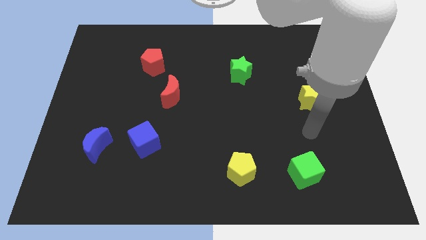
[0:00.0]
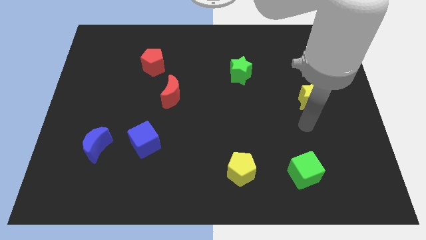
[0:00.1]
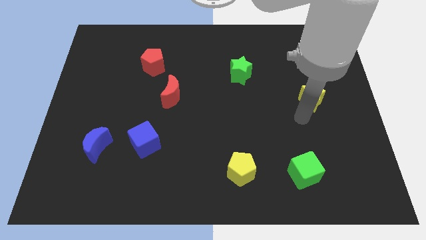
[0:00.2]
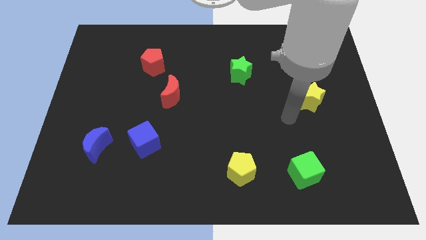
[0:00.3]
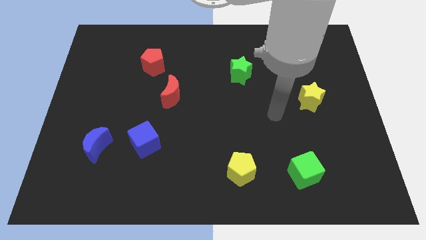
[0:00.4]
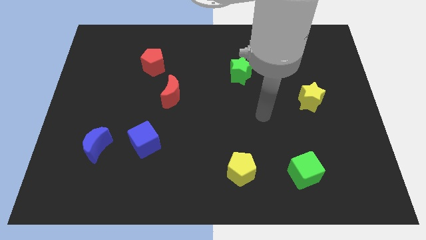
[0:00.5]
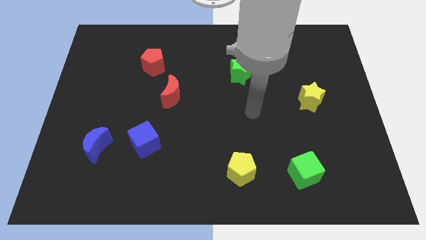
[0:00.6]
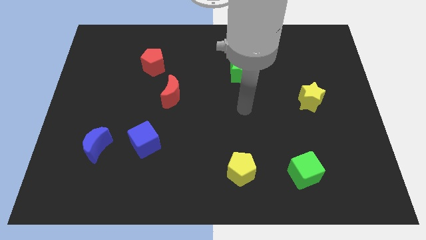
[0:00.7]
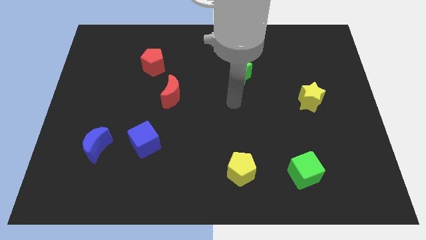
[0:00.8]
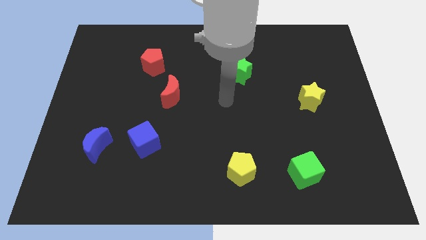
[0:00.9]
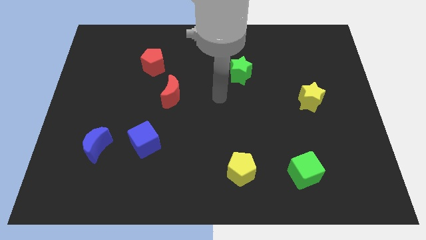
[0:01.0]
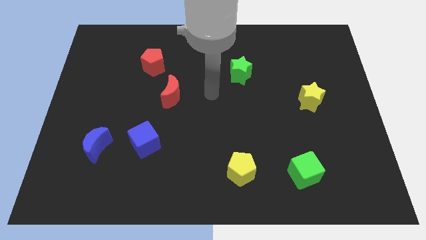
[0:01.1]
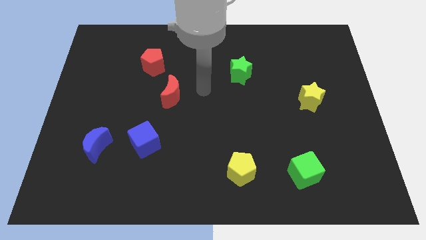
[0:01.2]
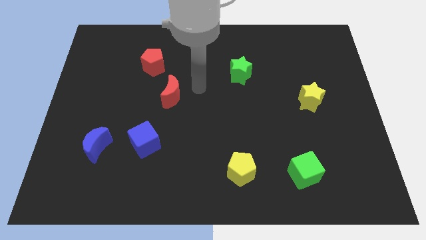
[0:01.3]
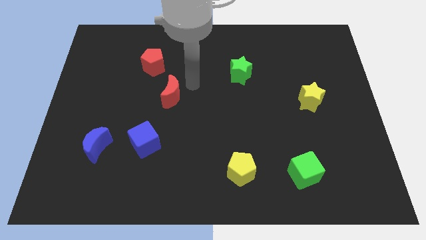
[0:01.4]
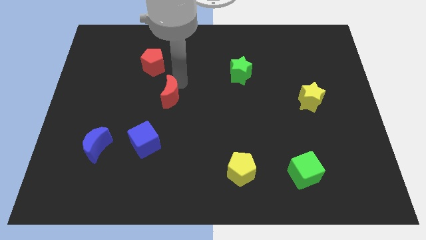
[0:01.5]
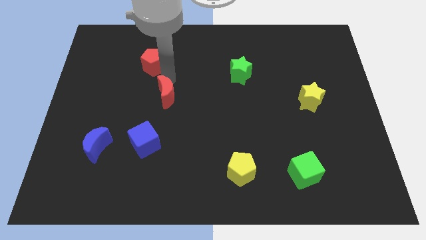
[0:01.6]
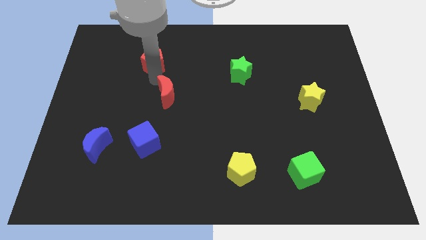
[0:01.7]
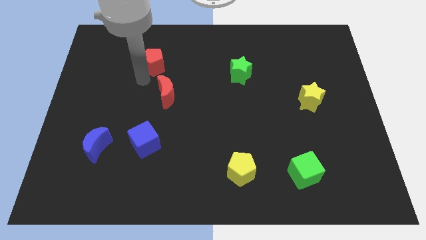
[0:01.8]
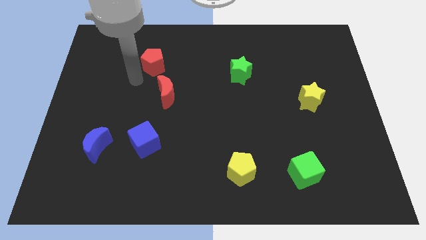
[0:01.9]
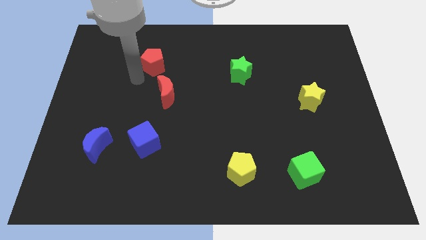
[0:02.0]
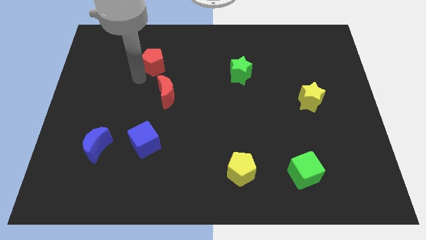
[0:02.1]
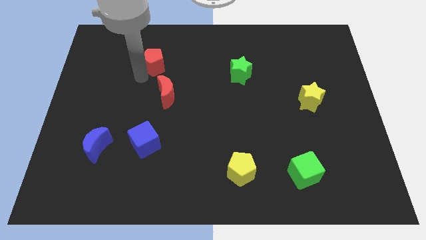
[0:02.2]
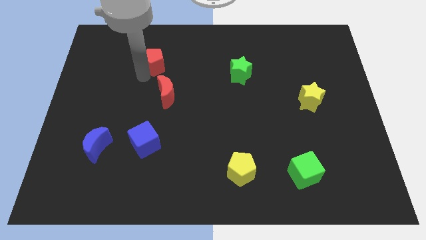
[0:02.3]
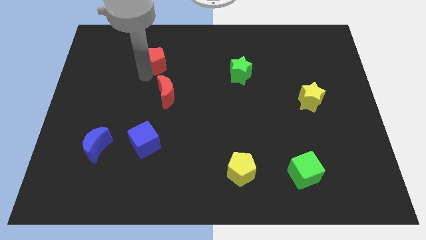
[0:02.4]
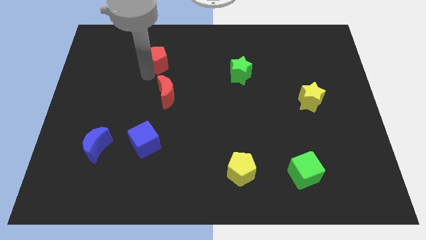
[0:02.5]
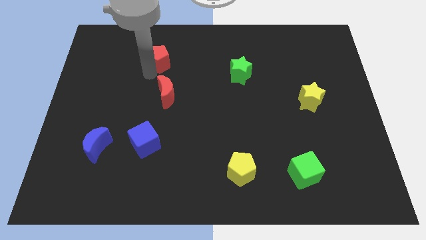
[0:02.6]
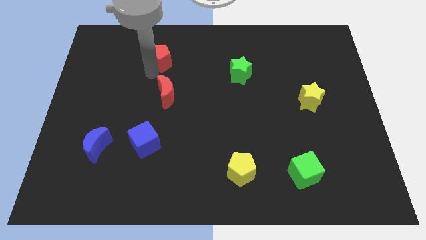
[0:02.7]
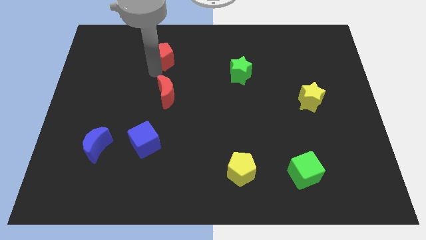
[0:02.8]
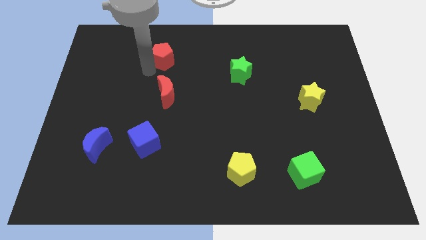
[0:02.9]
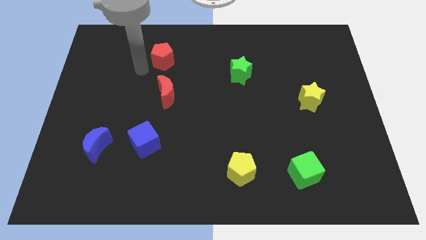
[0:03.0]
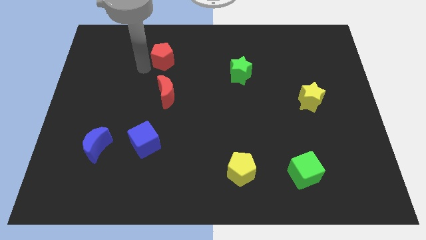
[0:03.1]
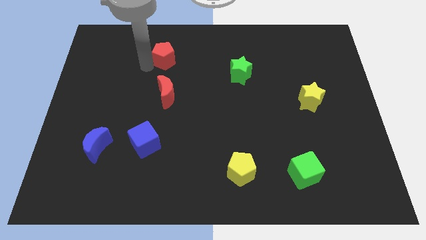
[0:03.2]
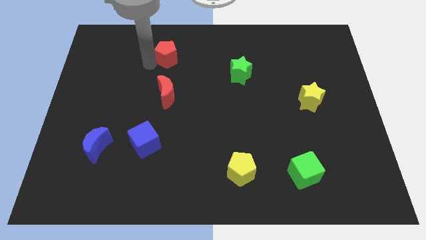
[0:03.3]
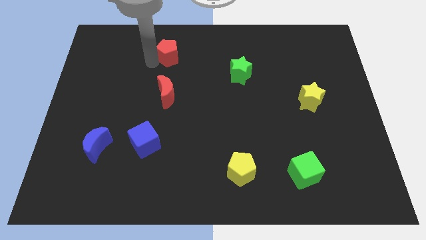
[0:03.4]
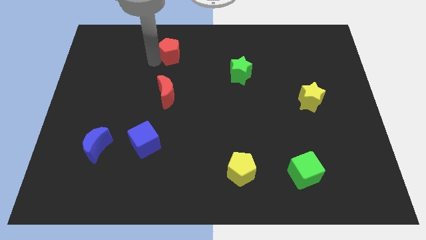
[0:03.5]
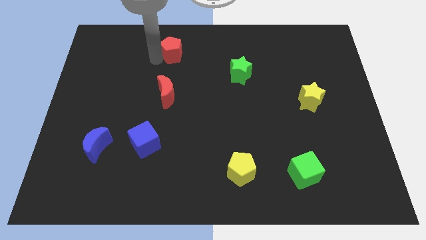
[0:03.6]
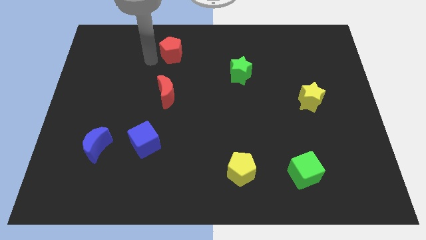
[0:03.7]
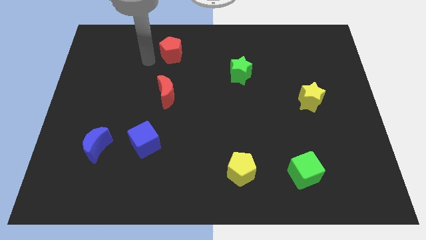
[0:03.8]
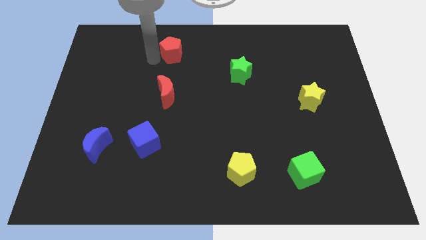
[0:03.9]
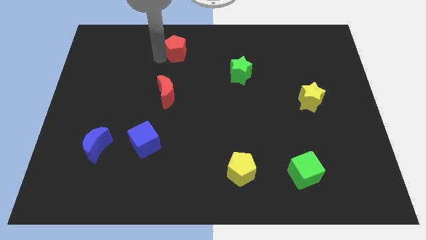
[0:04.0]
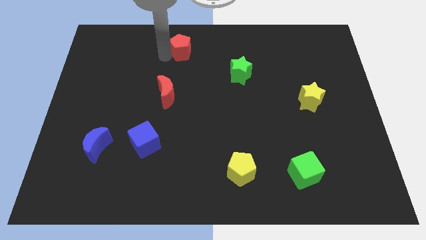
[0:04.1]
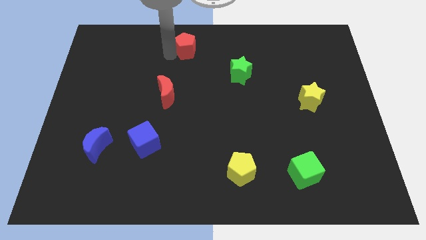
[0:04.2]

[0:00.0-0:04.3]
slide the red pentagon to the top

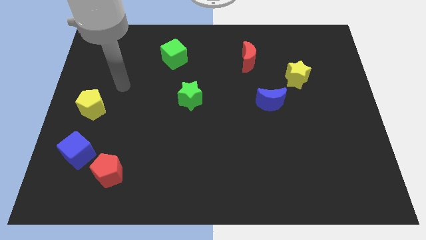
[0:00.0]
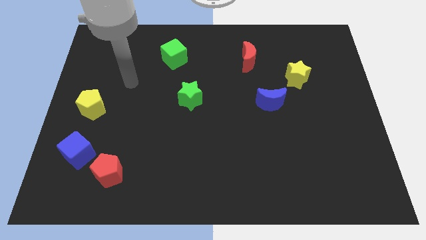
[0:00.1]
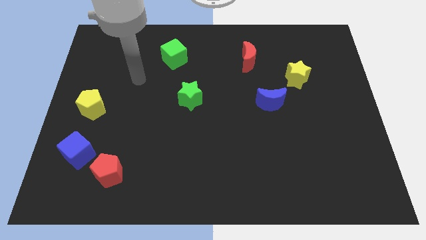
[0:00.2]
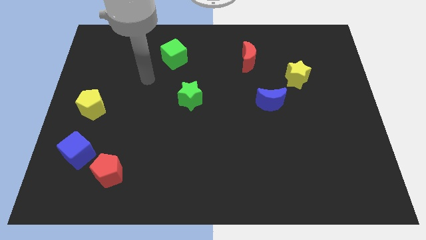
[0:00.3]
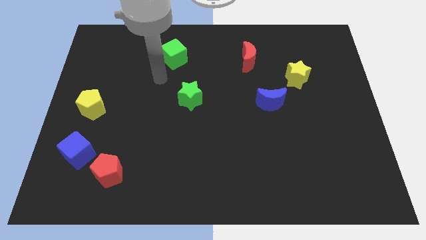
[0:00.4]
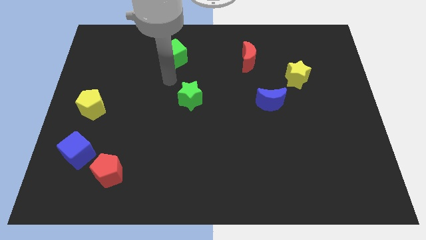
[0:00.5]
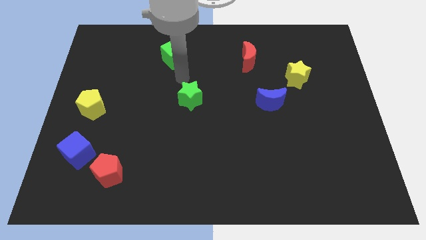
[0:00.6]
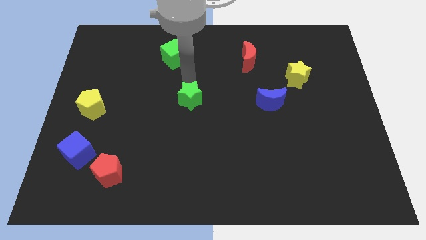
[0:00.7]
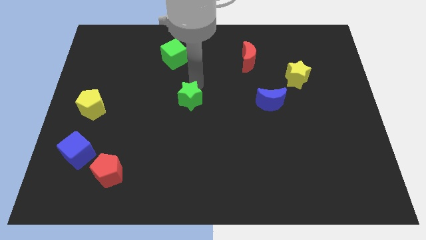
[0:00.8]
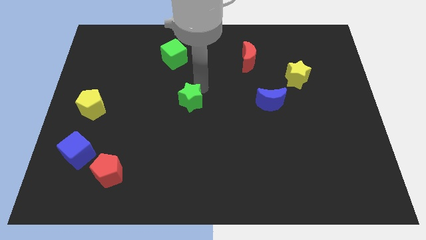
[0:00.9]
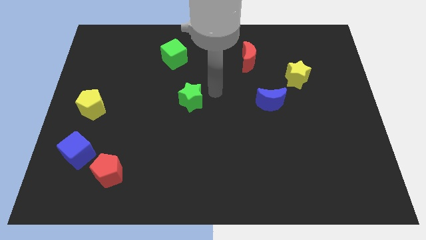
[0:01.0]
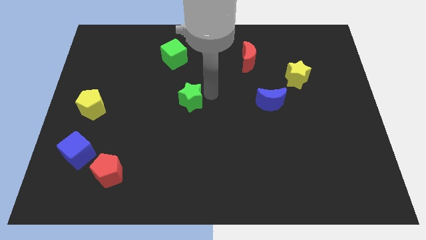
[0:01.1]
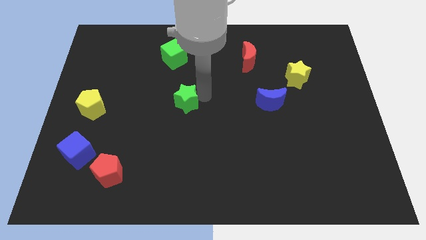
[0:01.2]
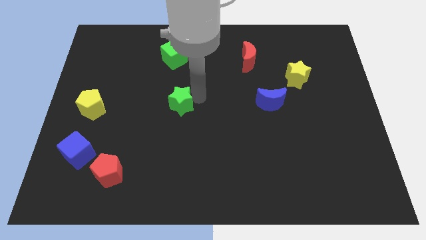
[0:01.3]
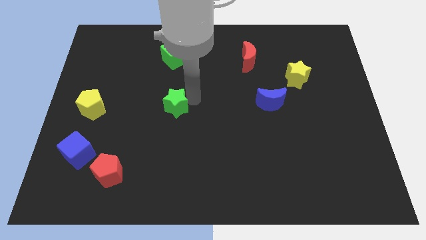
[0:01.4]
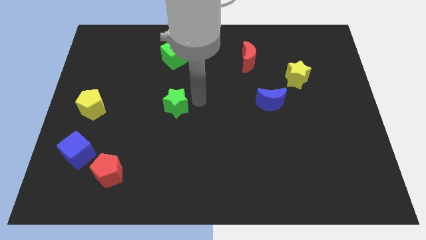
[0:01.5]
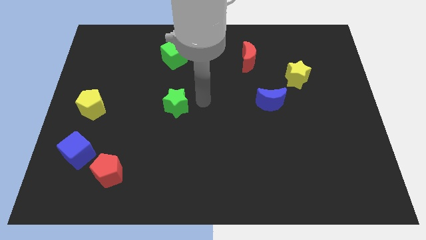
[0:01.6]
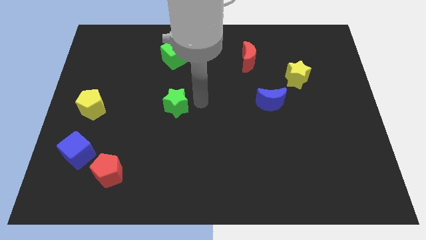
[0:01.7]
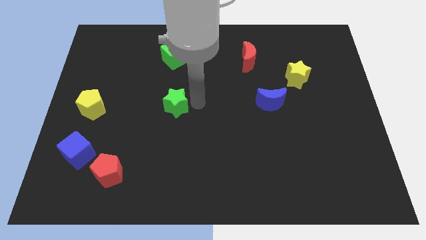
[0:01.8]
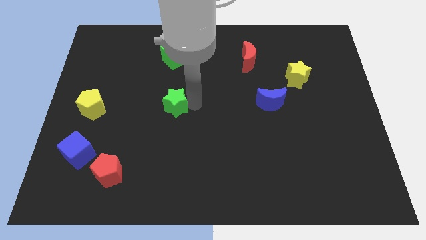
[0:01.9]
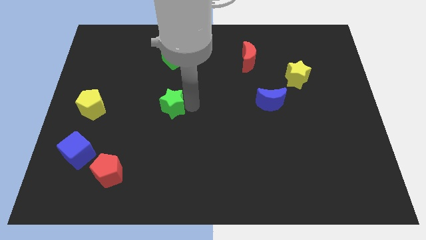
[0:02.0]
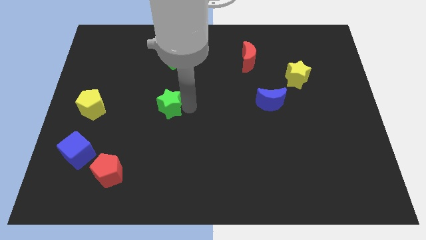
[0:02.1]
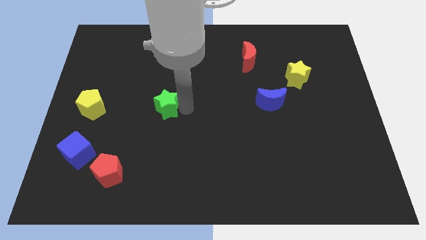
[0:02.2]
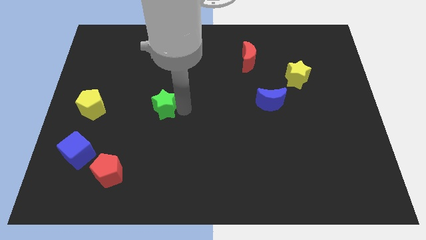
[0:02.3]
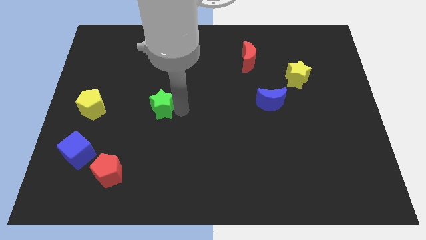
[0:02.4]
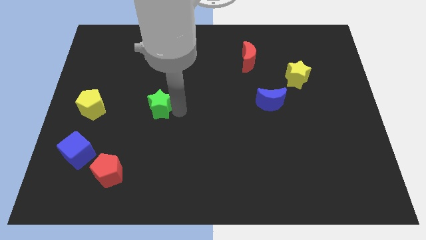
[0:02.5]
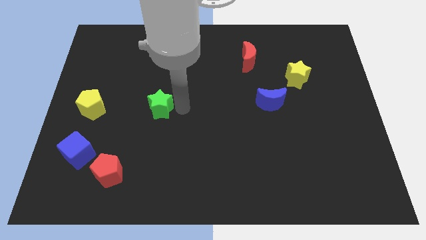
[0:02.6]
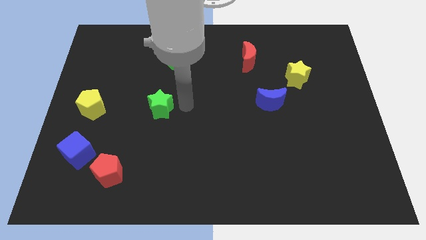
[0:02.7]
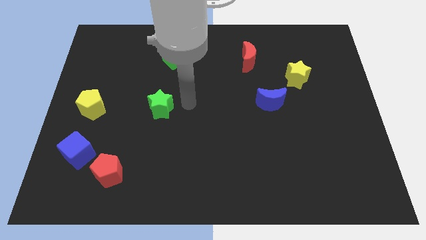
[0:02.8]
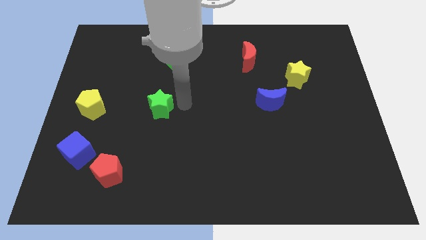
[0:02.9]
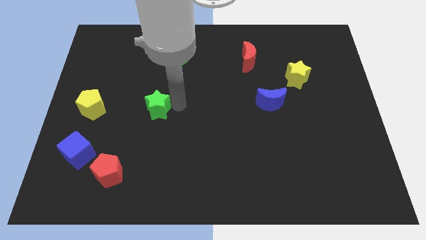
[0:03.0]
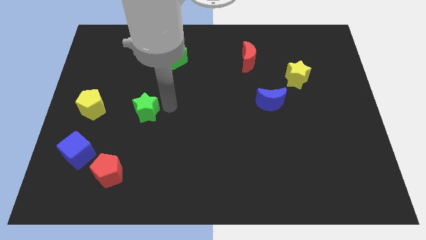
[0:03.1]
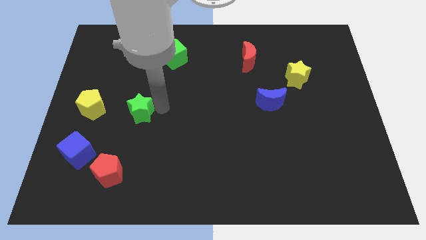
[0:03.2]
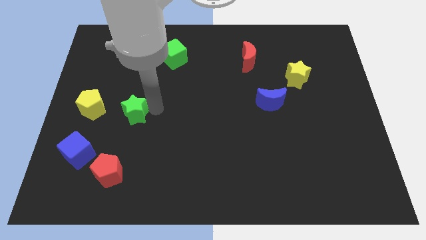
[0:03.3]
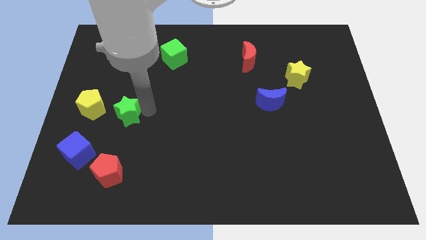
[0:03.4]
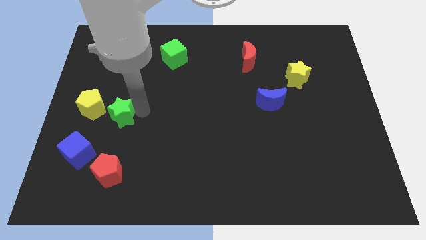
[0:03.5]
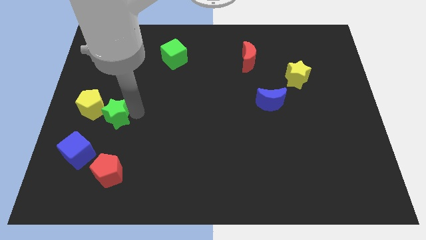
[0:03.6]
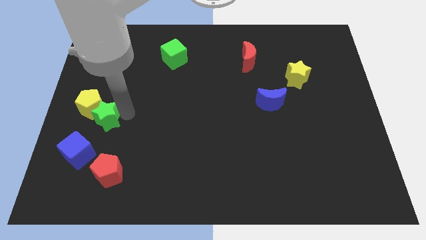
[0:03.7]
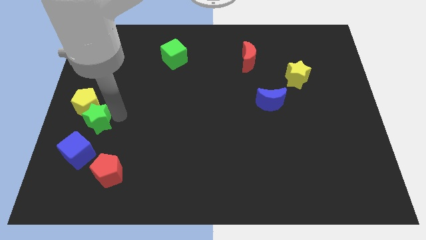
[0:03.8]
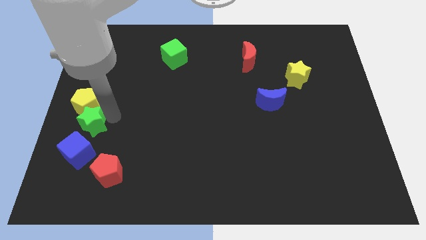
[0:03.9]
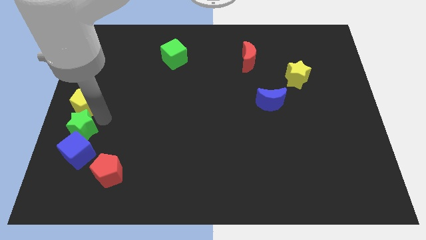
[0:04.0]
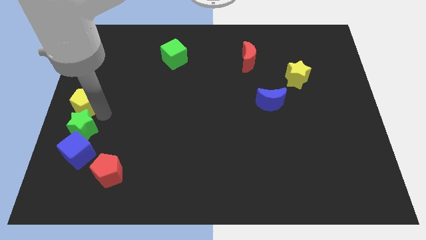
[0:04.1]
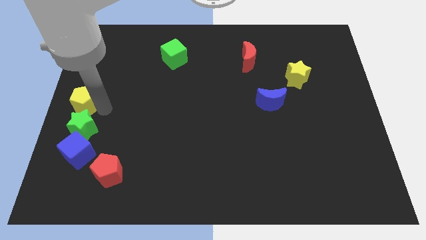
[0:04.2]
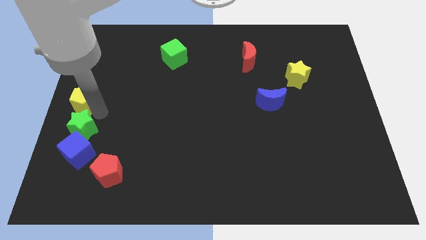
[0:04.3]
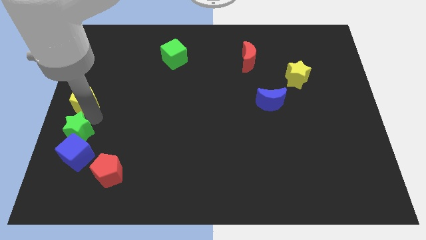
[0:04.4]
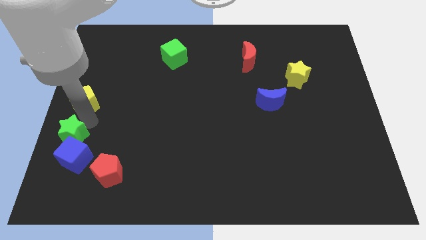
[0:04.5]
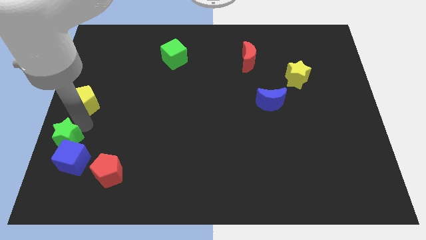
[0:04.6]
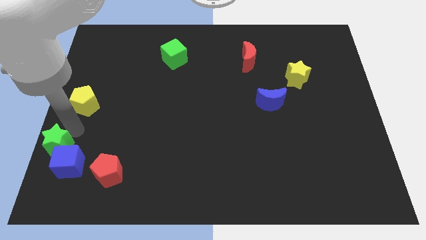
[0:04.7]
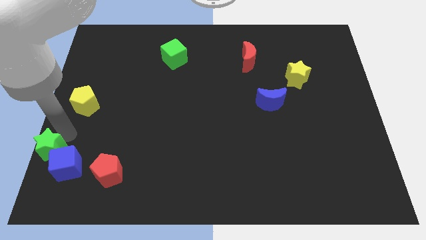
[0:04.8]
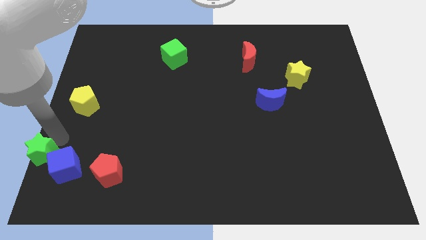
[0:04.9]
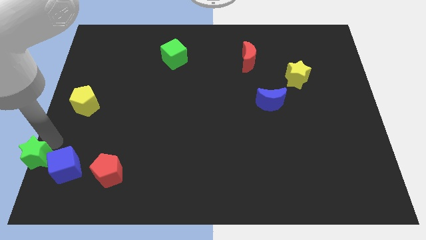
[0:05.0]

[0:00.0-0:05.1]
slide the green star to the bottom left corner
